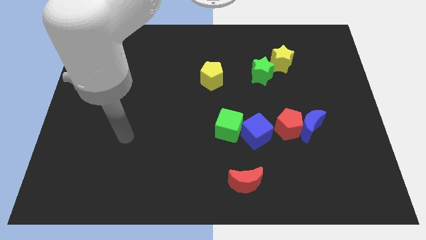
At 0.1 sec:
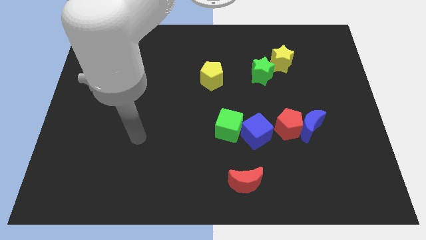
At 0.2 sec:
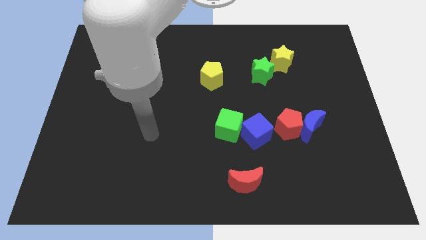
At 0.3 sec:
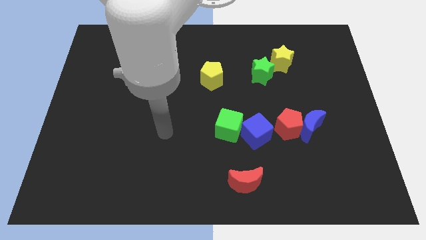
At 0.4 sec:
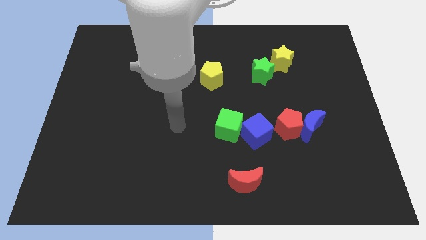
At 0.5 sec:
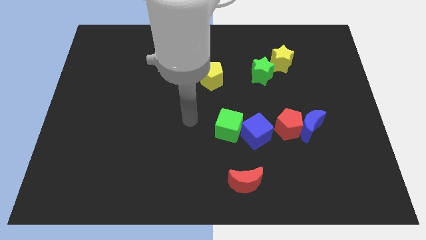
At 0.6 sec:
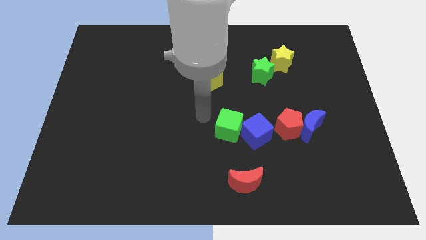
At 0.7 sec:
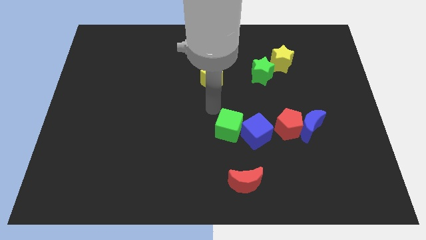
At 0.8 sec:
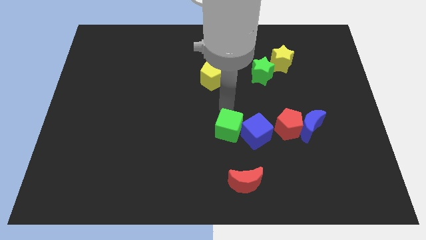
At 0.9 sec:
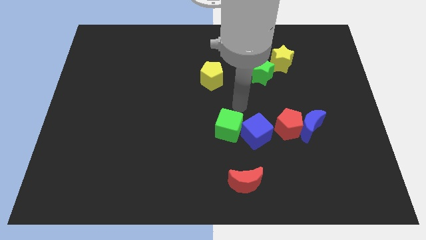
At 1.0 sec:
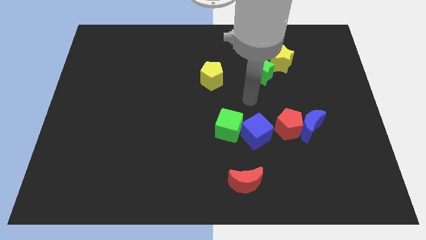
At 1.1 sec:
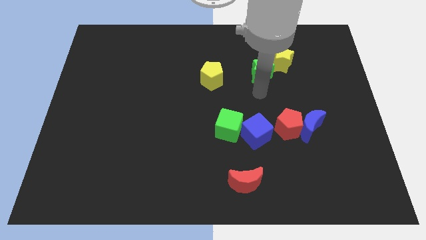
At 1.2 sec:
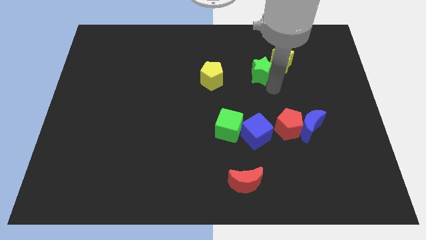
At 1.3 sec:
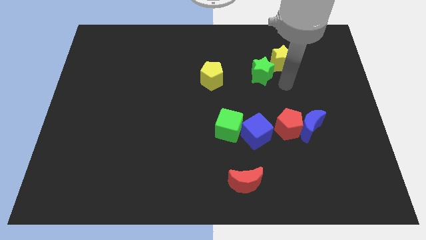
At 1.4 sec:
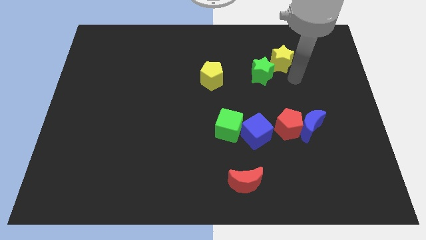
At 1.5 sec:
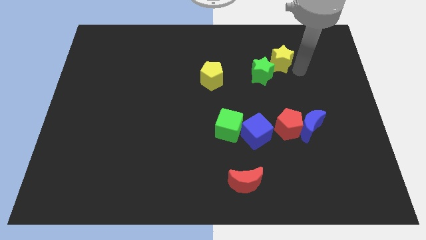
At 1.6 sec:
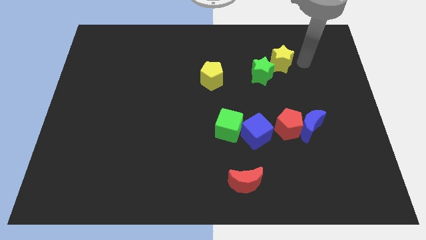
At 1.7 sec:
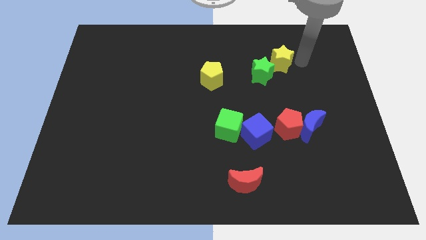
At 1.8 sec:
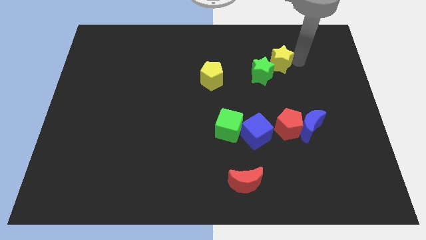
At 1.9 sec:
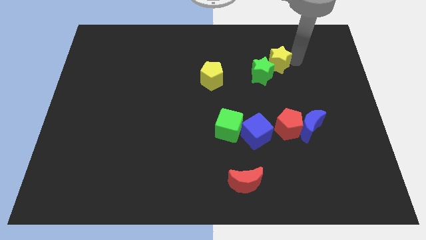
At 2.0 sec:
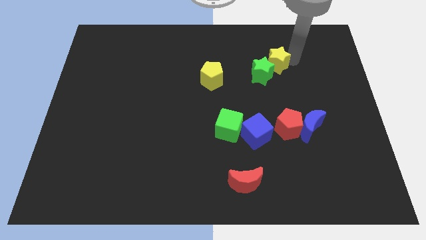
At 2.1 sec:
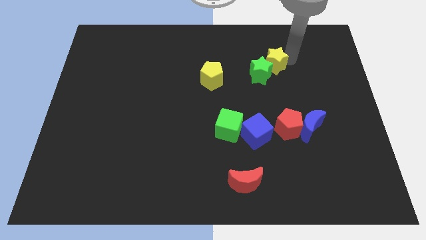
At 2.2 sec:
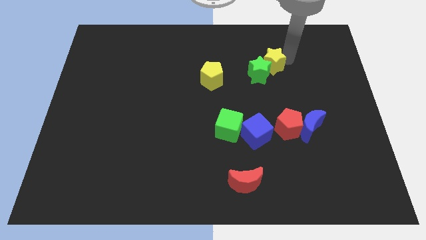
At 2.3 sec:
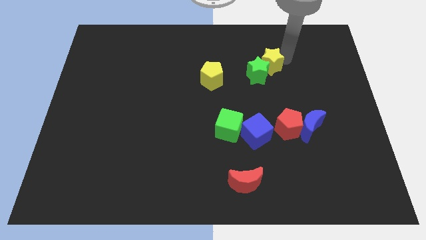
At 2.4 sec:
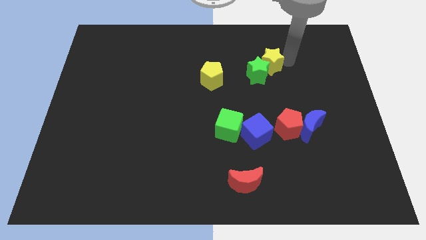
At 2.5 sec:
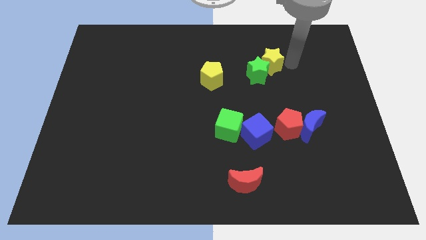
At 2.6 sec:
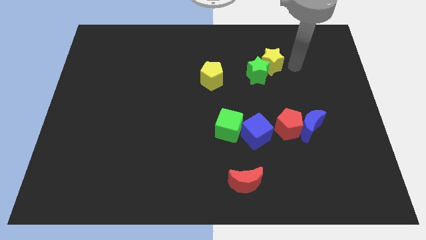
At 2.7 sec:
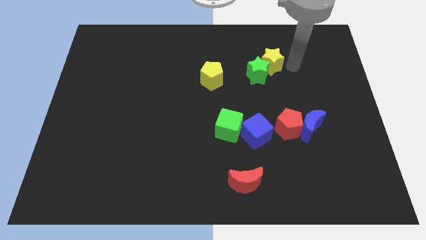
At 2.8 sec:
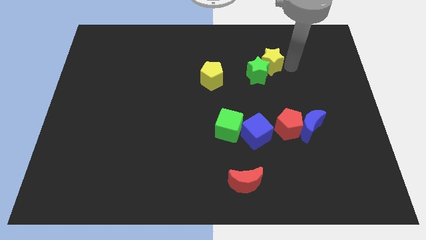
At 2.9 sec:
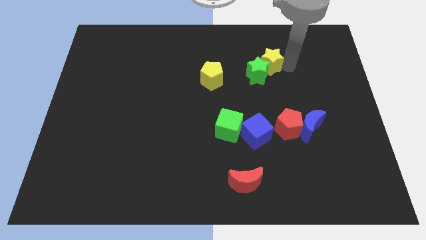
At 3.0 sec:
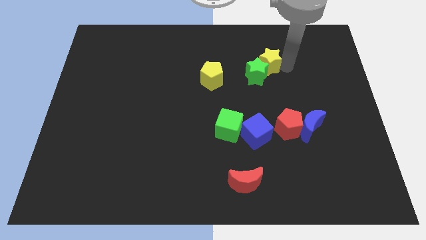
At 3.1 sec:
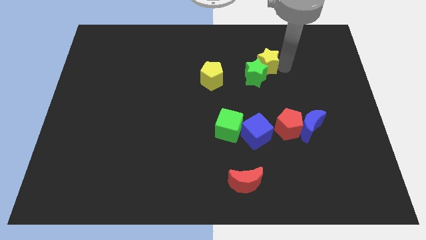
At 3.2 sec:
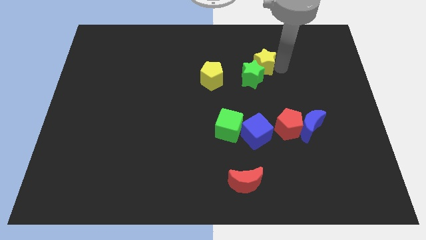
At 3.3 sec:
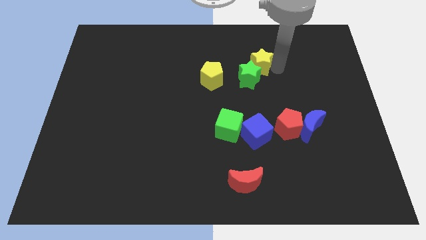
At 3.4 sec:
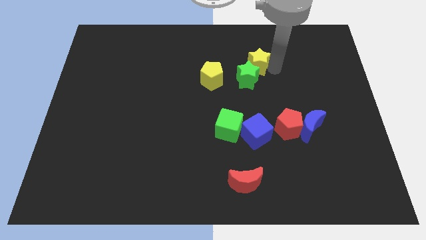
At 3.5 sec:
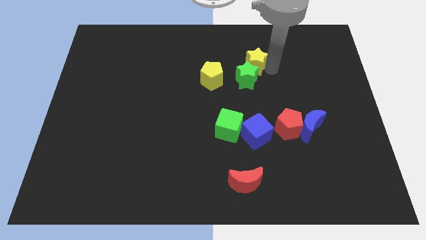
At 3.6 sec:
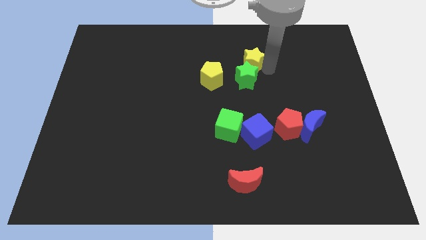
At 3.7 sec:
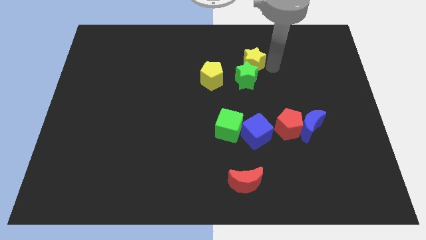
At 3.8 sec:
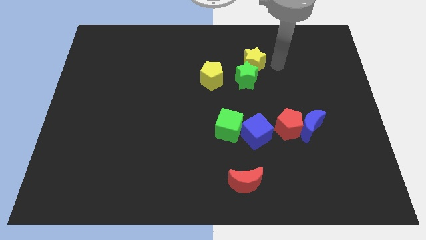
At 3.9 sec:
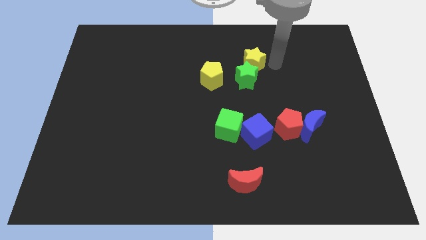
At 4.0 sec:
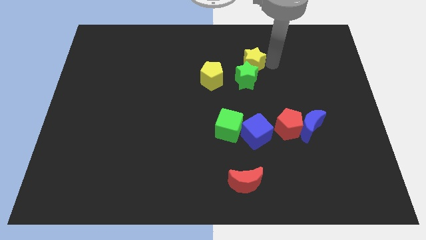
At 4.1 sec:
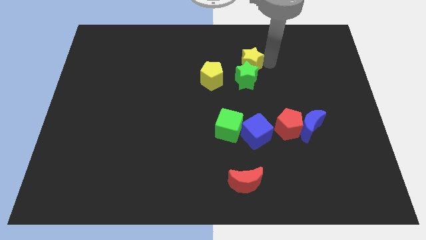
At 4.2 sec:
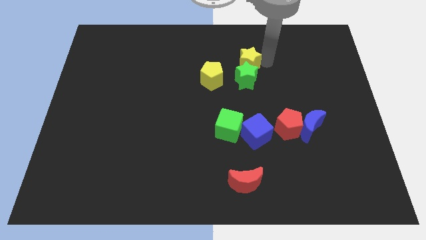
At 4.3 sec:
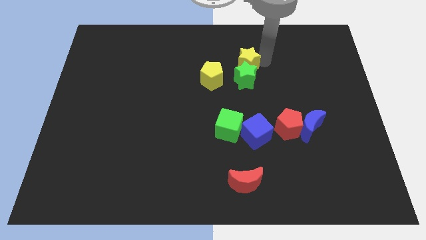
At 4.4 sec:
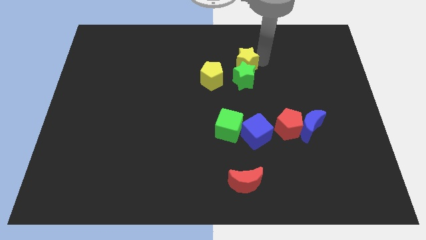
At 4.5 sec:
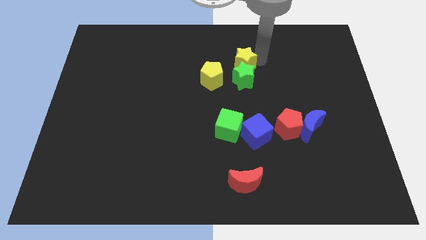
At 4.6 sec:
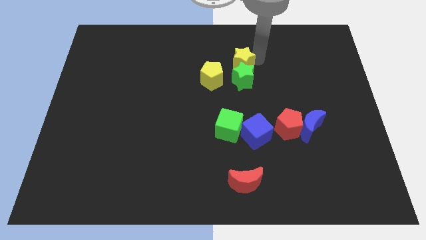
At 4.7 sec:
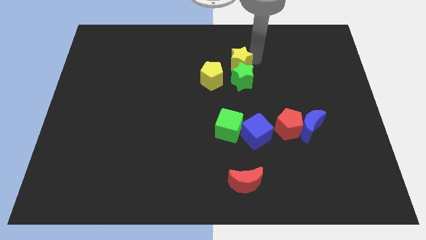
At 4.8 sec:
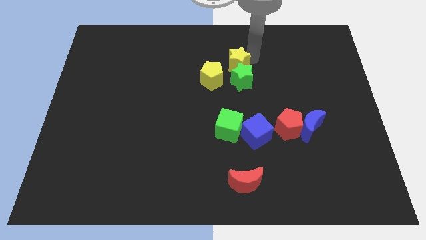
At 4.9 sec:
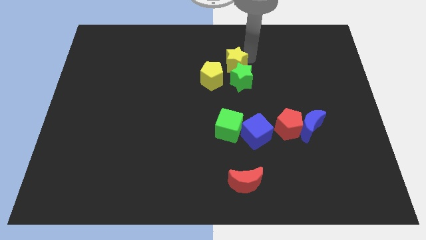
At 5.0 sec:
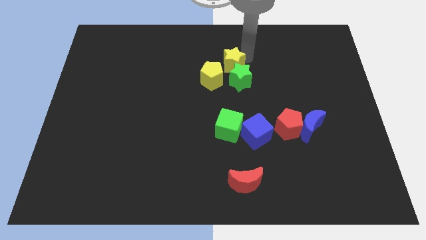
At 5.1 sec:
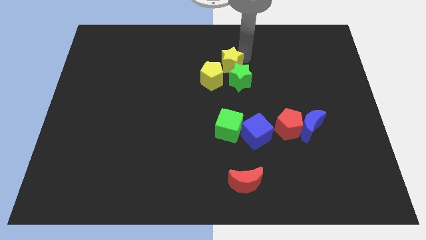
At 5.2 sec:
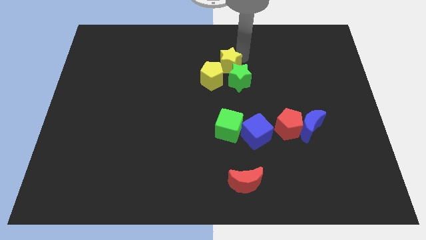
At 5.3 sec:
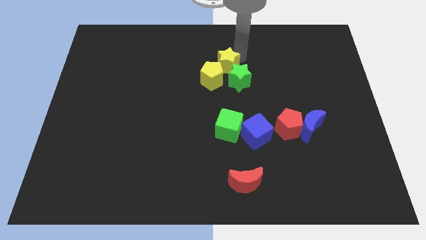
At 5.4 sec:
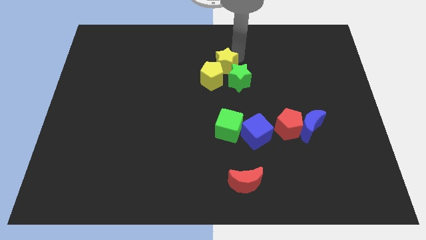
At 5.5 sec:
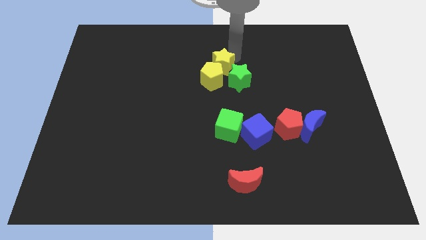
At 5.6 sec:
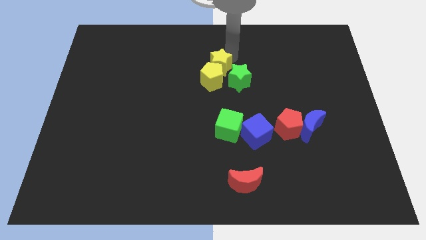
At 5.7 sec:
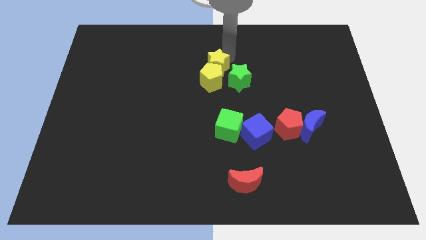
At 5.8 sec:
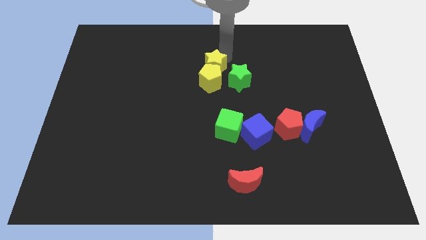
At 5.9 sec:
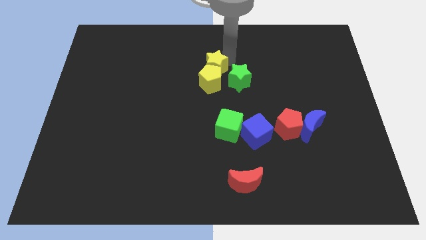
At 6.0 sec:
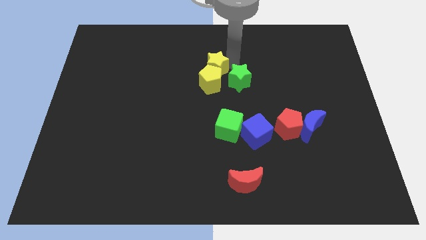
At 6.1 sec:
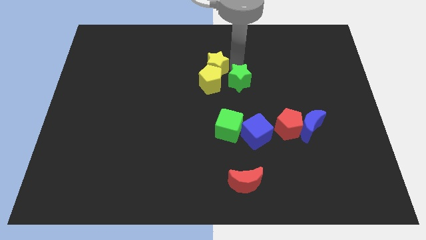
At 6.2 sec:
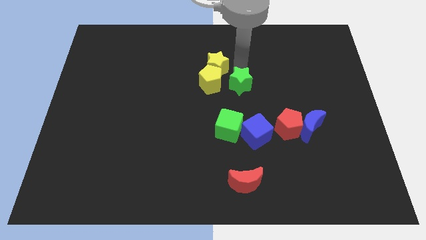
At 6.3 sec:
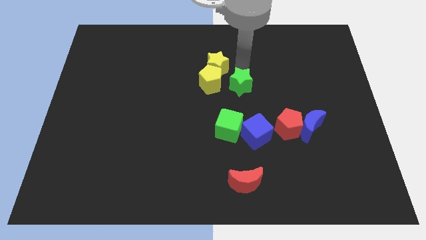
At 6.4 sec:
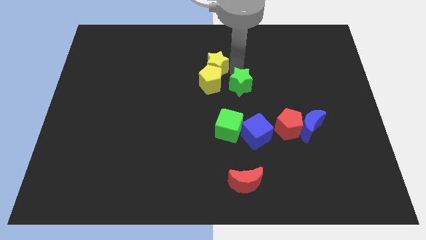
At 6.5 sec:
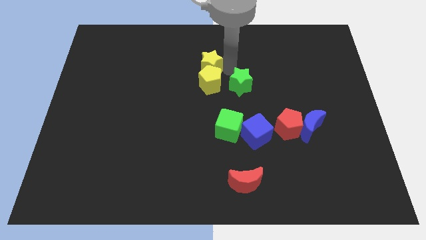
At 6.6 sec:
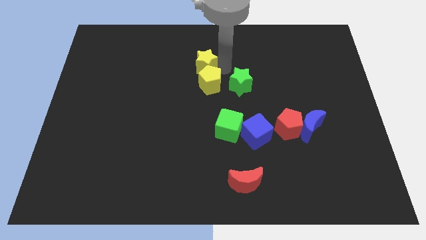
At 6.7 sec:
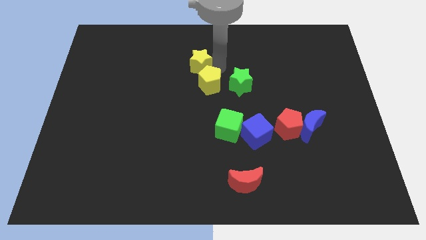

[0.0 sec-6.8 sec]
slide the yellow star to the left

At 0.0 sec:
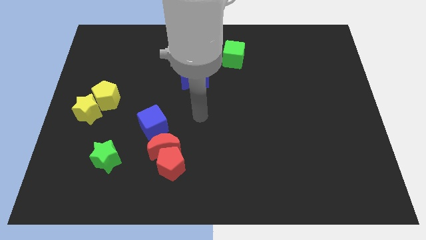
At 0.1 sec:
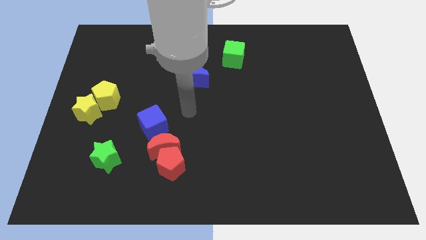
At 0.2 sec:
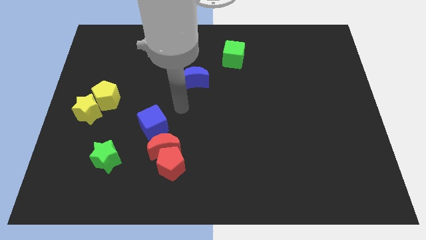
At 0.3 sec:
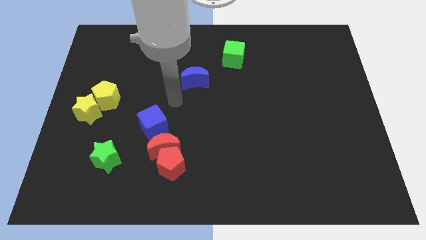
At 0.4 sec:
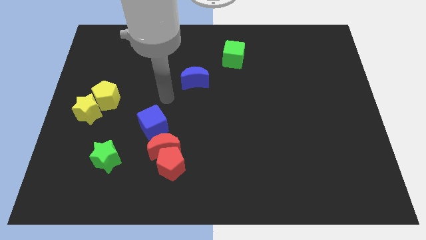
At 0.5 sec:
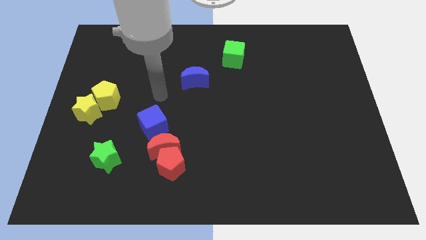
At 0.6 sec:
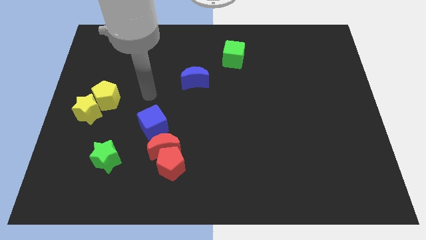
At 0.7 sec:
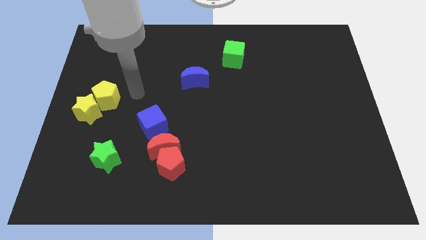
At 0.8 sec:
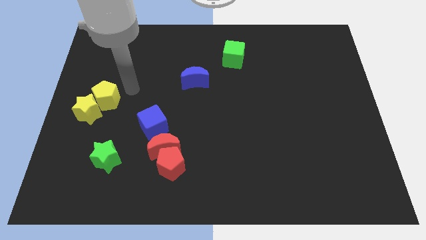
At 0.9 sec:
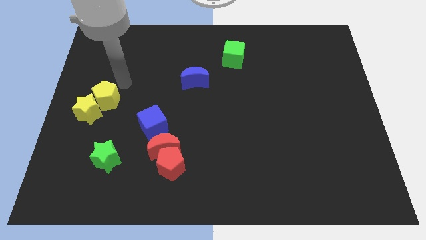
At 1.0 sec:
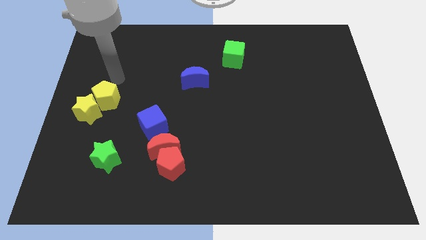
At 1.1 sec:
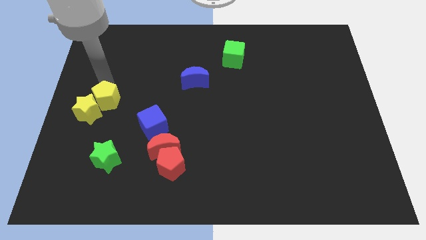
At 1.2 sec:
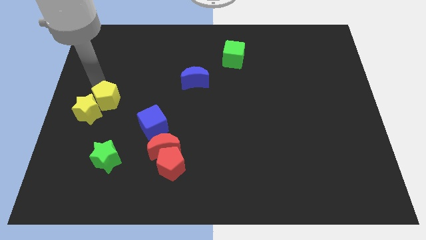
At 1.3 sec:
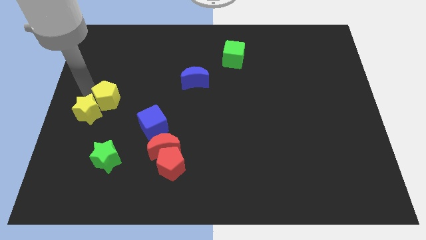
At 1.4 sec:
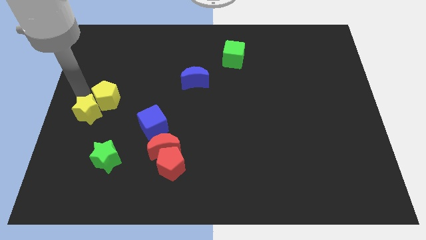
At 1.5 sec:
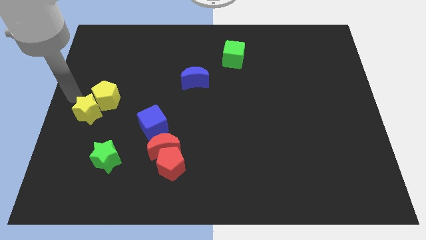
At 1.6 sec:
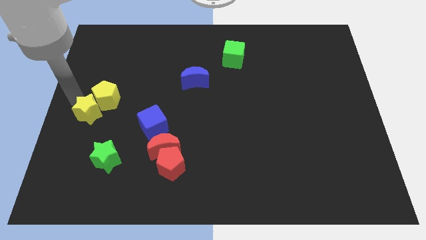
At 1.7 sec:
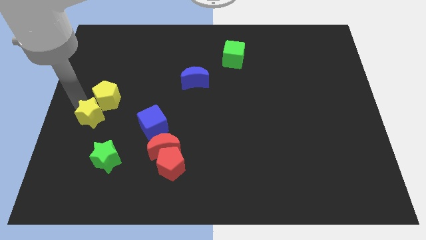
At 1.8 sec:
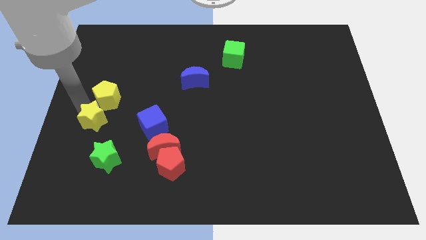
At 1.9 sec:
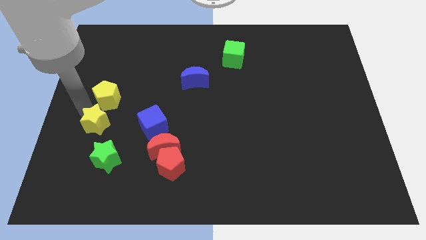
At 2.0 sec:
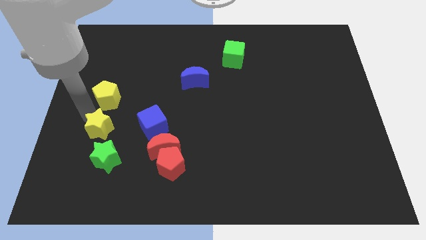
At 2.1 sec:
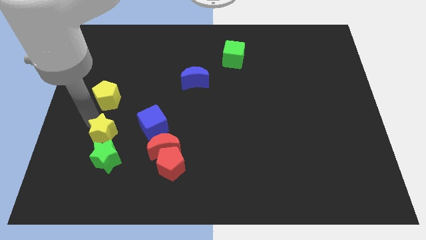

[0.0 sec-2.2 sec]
push the yellow star diagonally downwards and right slightly
